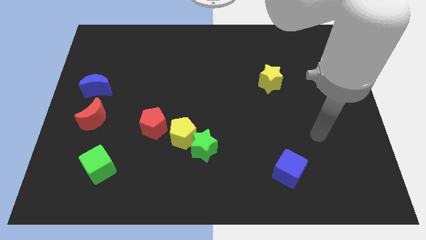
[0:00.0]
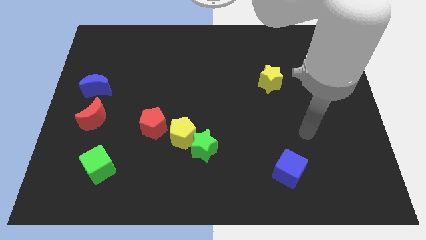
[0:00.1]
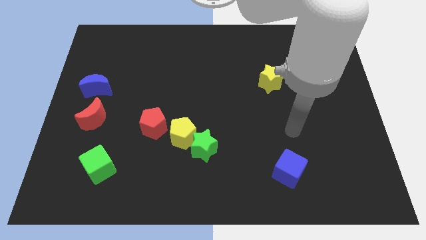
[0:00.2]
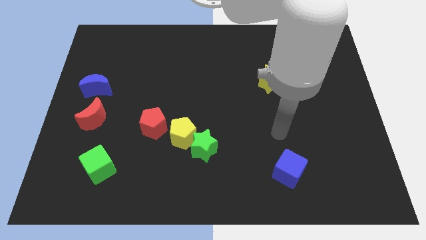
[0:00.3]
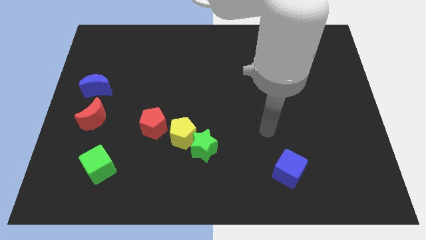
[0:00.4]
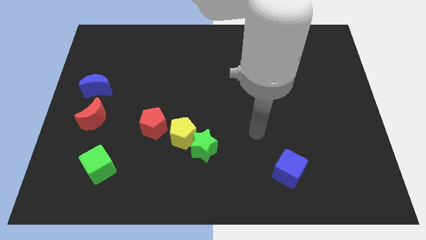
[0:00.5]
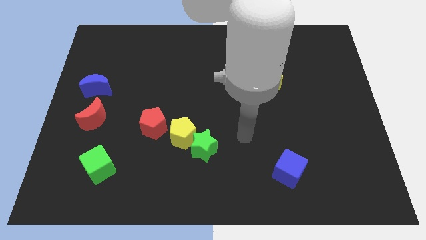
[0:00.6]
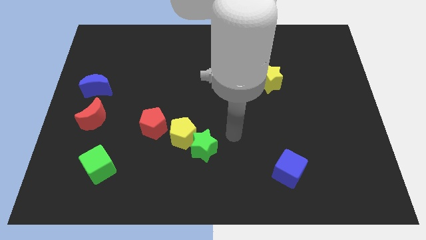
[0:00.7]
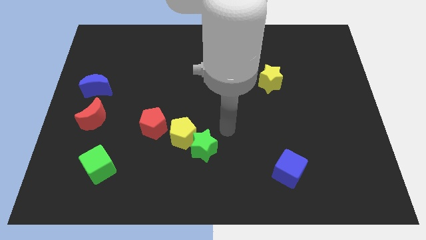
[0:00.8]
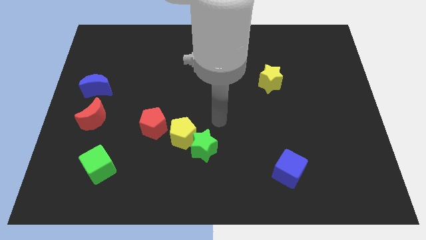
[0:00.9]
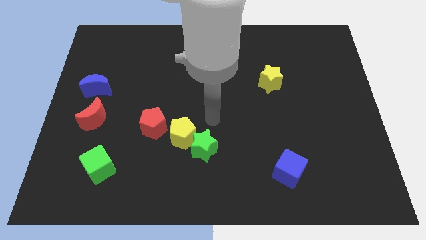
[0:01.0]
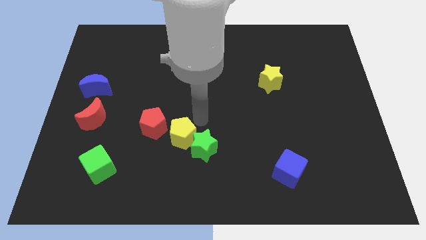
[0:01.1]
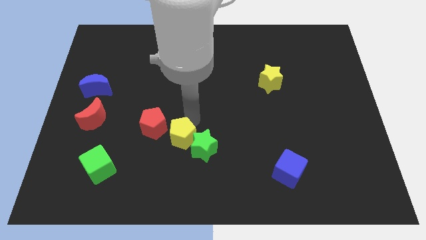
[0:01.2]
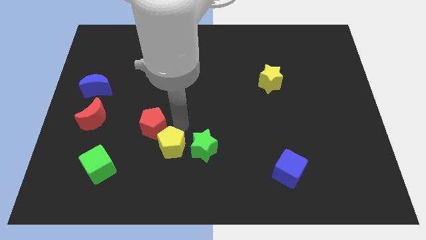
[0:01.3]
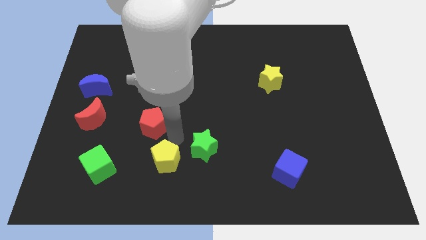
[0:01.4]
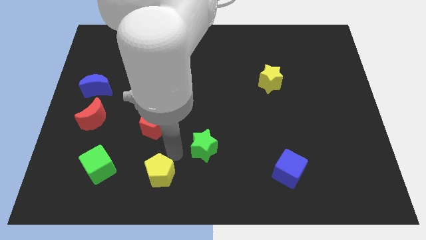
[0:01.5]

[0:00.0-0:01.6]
pull the green star apart from the yellow pentagon

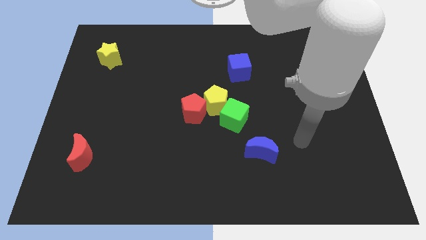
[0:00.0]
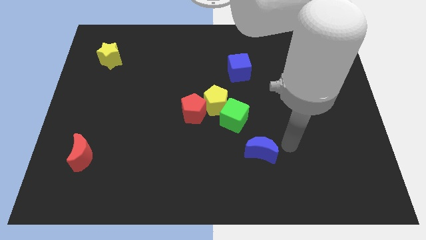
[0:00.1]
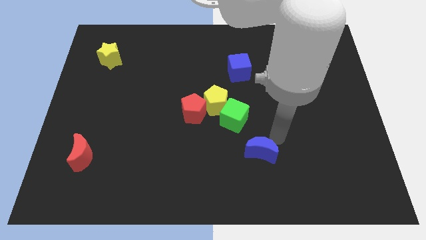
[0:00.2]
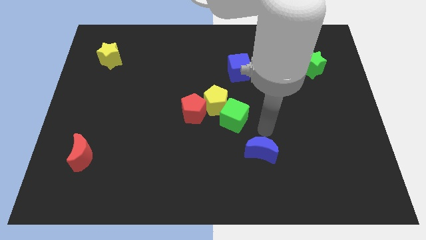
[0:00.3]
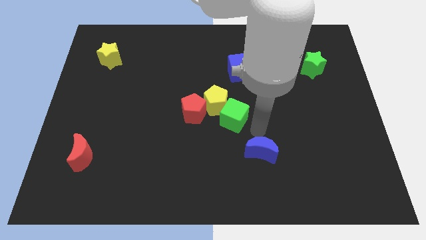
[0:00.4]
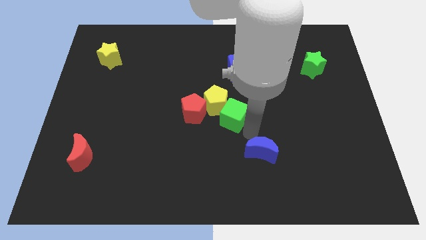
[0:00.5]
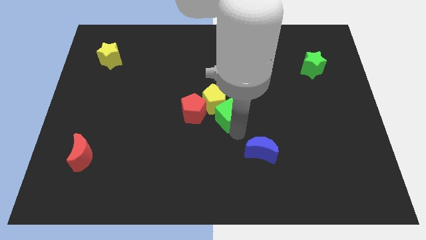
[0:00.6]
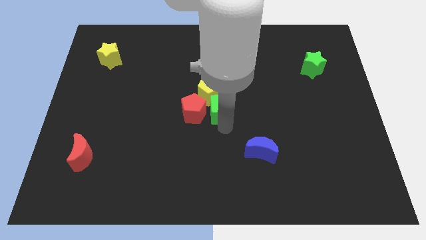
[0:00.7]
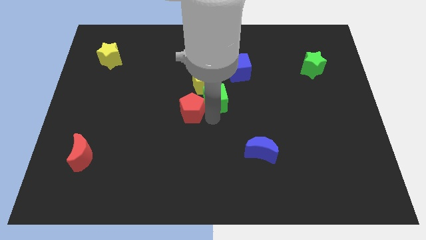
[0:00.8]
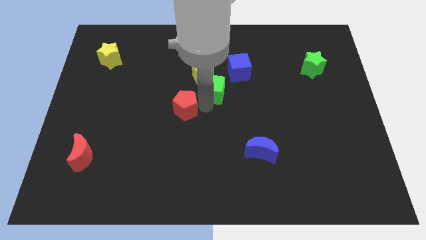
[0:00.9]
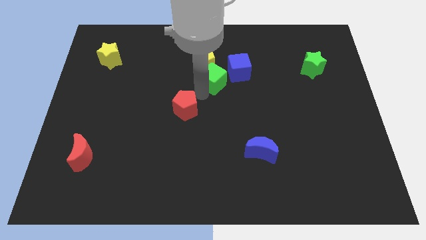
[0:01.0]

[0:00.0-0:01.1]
move the yellow pentagon away from the green cube and red pentagon

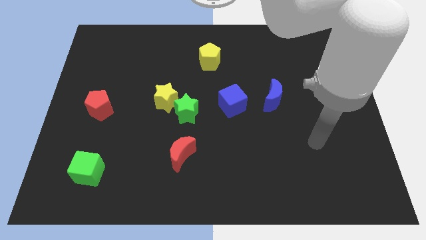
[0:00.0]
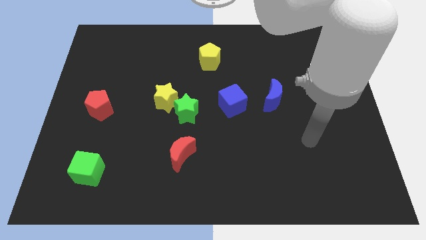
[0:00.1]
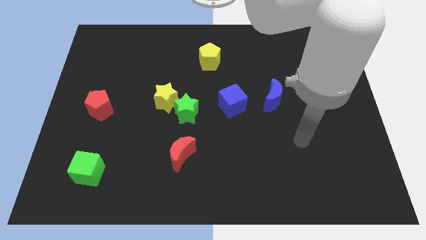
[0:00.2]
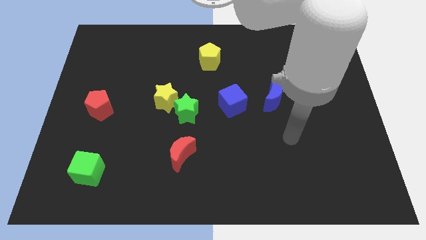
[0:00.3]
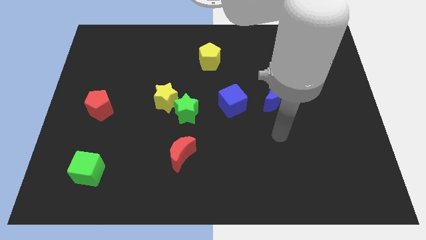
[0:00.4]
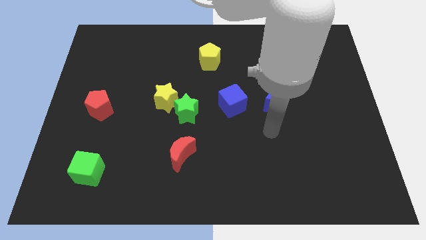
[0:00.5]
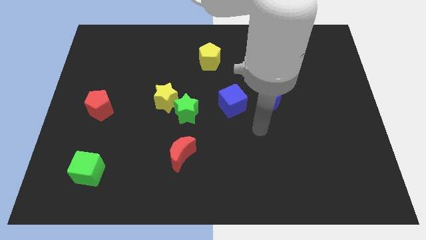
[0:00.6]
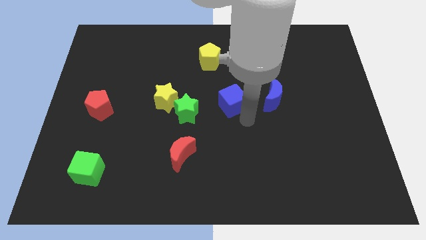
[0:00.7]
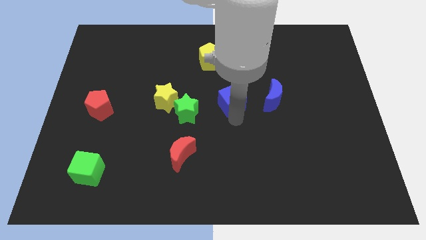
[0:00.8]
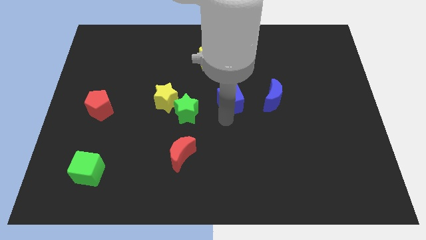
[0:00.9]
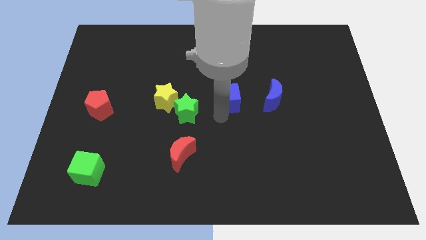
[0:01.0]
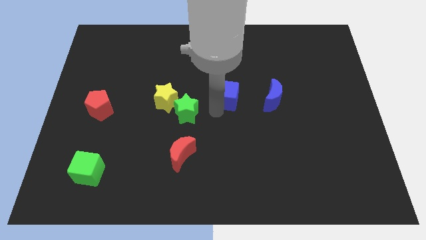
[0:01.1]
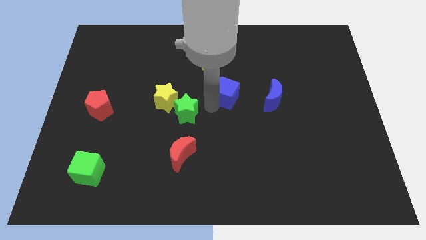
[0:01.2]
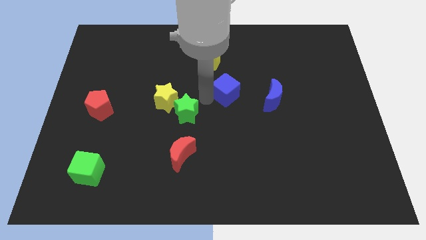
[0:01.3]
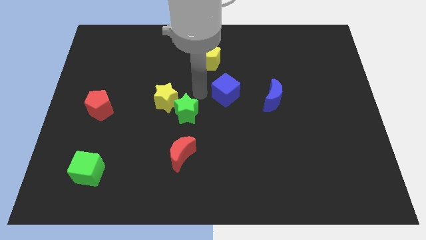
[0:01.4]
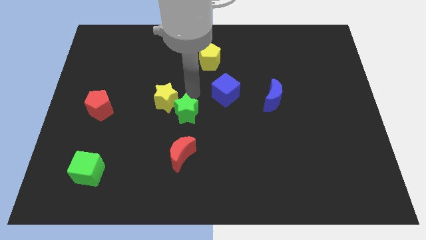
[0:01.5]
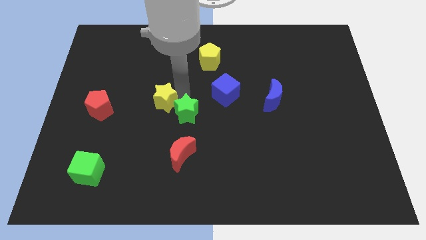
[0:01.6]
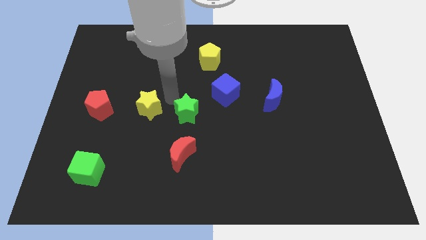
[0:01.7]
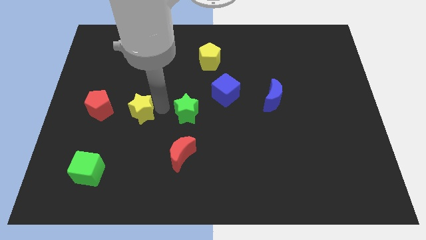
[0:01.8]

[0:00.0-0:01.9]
pull the green star apart from the yellow star

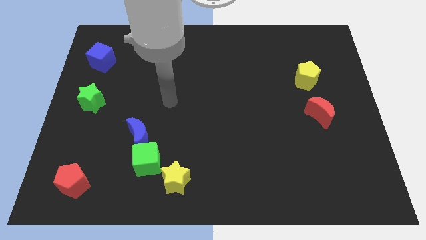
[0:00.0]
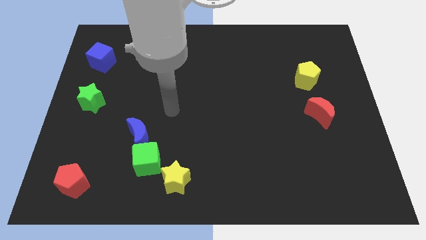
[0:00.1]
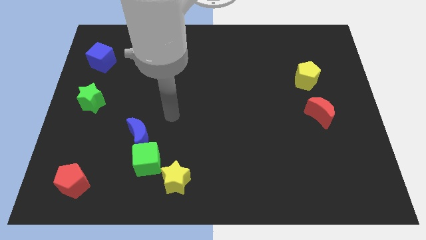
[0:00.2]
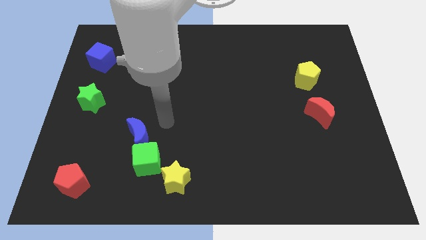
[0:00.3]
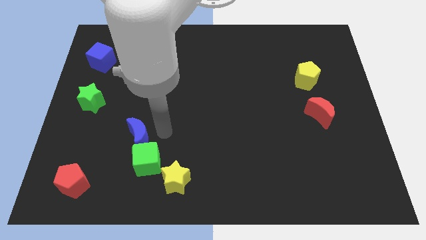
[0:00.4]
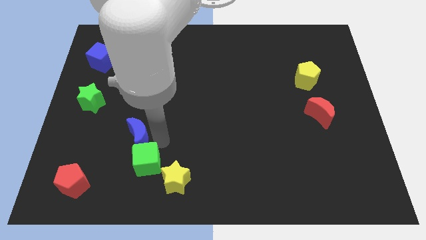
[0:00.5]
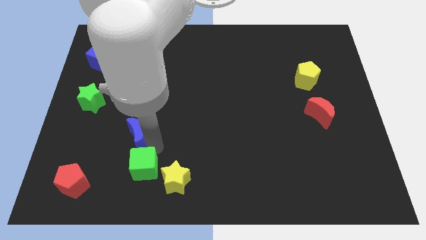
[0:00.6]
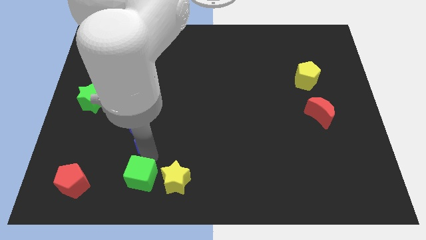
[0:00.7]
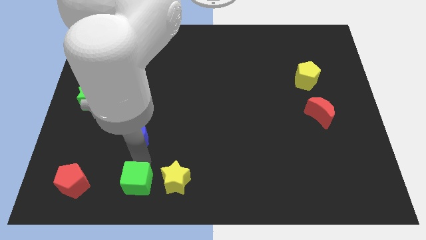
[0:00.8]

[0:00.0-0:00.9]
move the blue moon away from the green cube

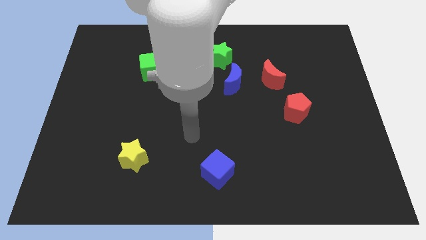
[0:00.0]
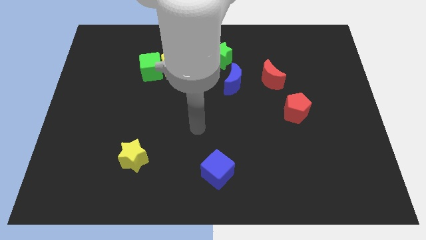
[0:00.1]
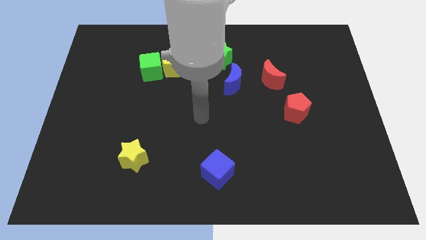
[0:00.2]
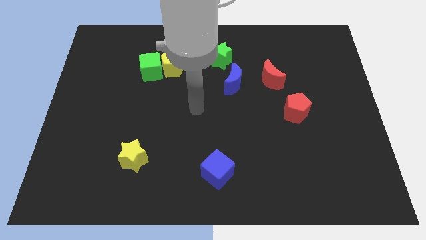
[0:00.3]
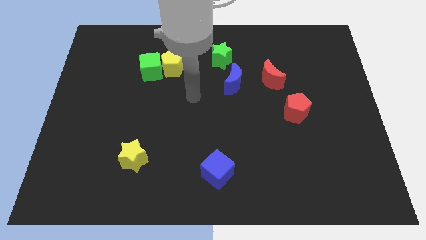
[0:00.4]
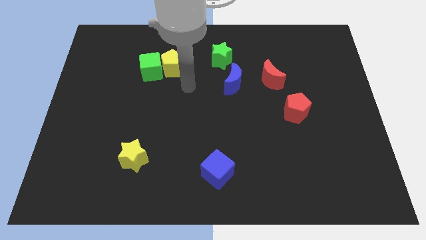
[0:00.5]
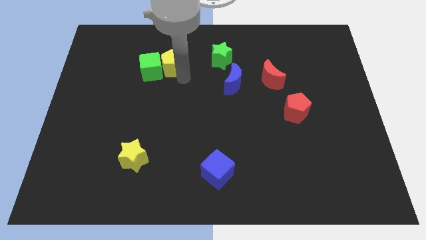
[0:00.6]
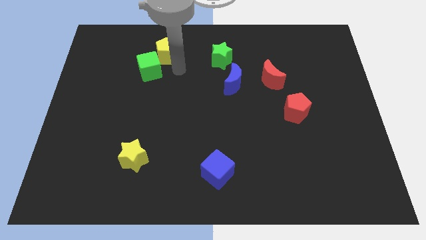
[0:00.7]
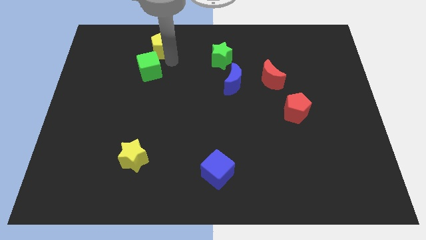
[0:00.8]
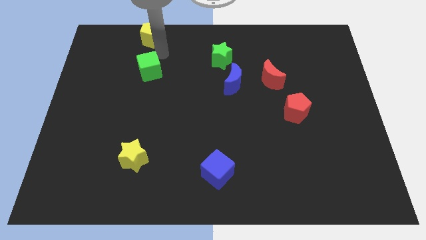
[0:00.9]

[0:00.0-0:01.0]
pull the green cube apart from the yellow pentagon

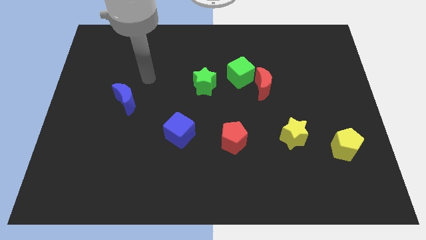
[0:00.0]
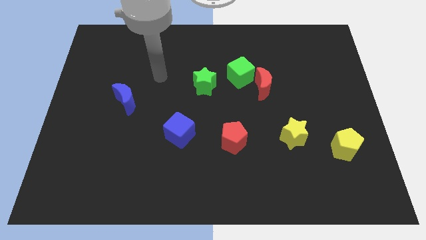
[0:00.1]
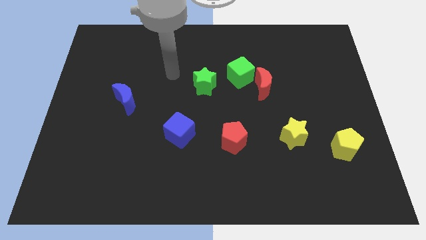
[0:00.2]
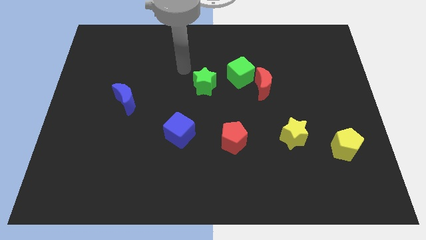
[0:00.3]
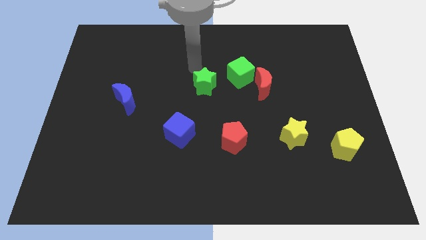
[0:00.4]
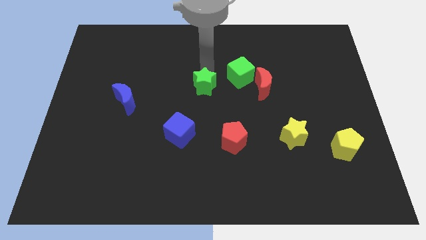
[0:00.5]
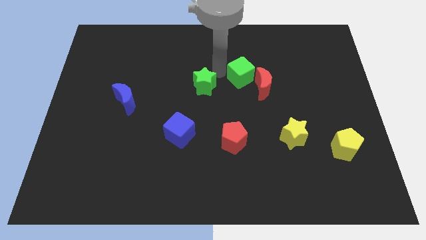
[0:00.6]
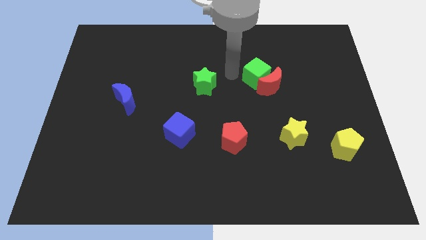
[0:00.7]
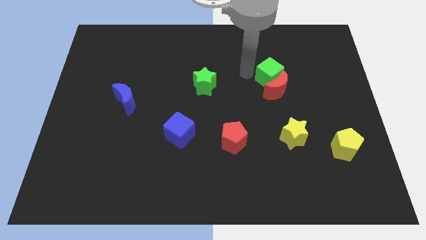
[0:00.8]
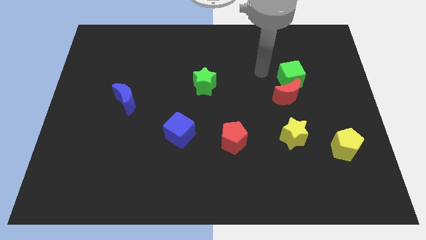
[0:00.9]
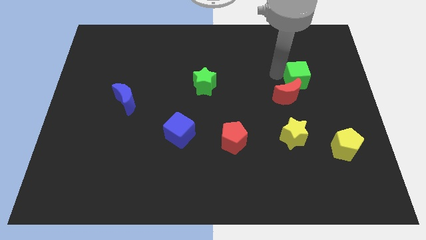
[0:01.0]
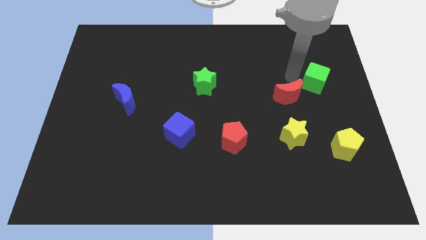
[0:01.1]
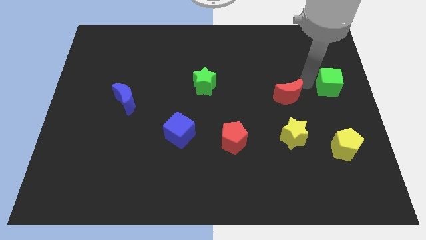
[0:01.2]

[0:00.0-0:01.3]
pull the red moon apart from the green cube

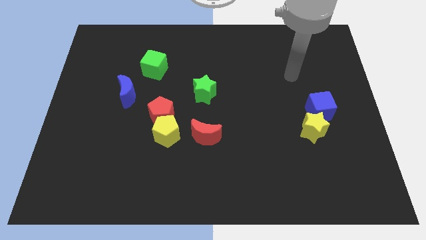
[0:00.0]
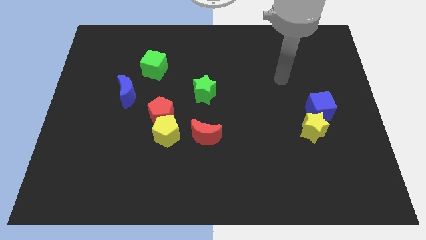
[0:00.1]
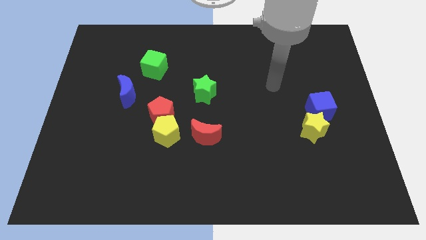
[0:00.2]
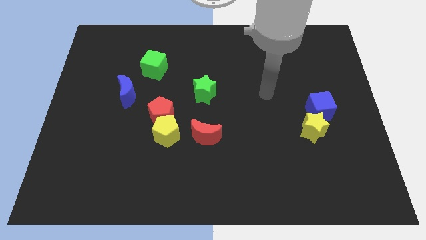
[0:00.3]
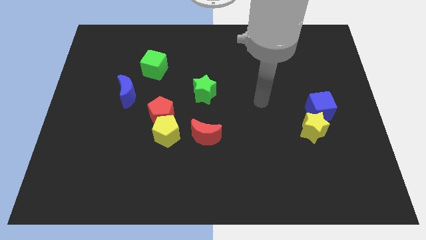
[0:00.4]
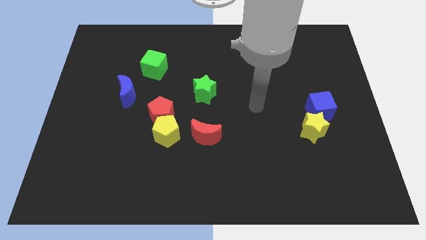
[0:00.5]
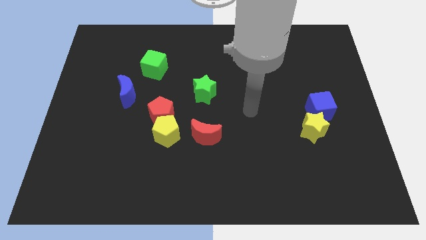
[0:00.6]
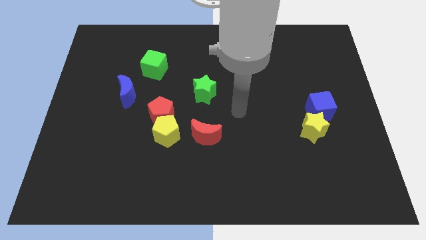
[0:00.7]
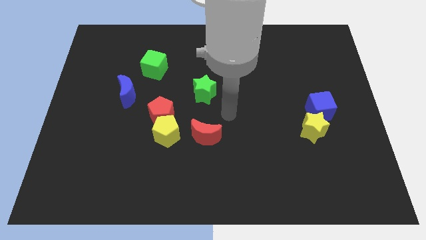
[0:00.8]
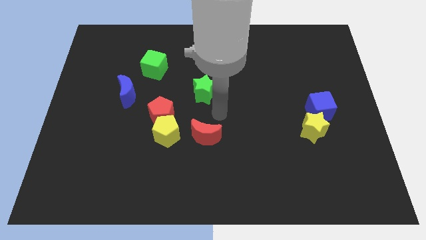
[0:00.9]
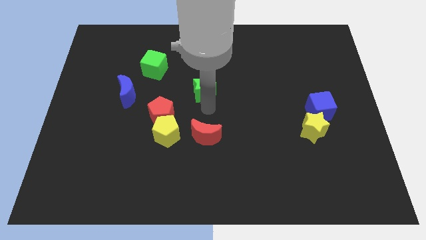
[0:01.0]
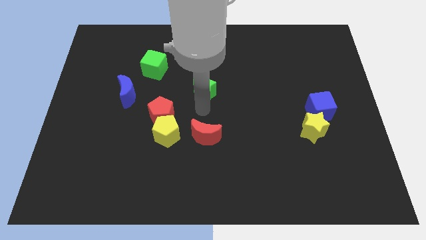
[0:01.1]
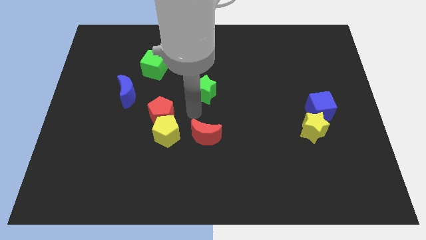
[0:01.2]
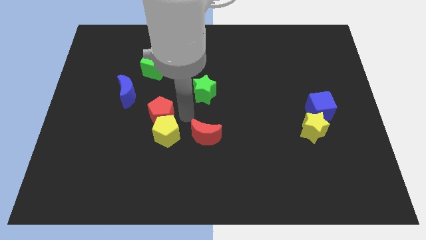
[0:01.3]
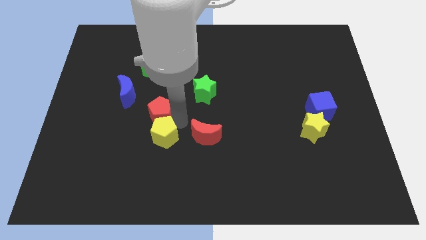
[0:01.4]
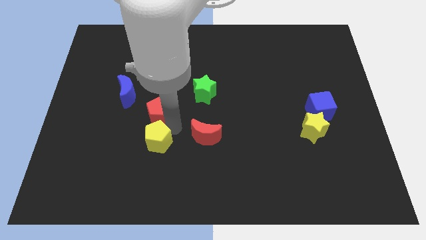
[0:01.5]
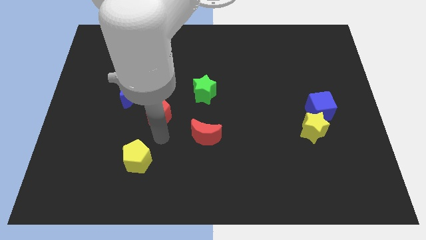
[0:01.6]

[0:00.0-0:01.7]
move the red pentagon away from the yellow pentagon
